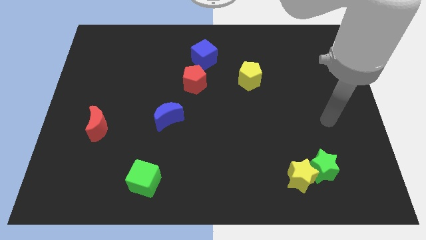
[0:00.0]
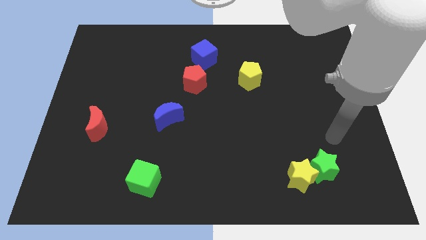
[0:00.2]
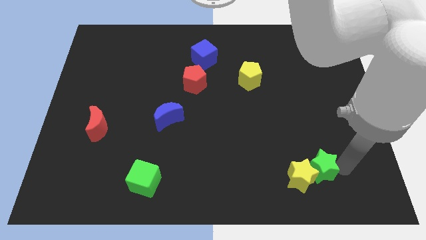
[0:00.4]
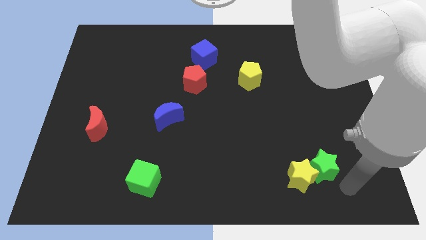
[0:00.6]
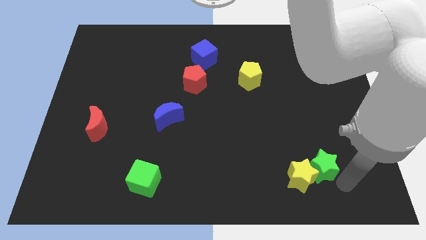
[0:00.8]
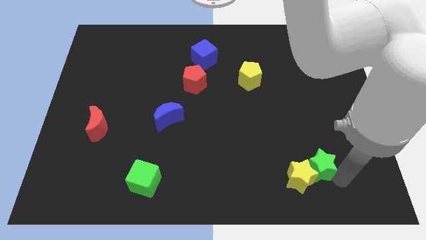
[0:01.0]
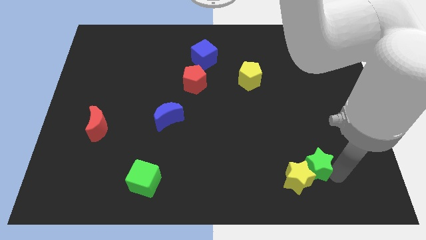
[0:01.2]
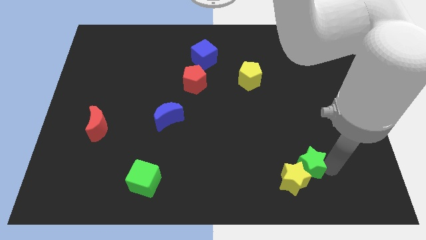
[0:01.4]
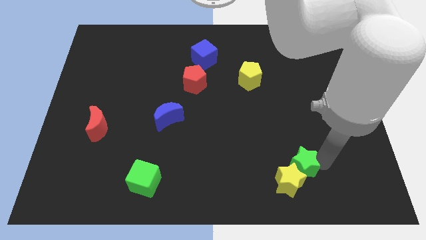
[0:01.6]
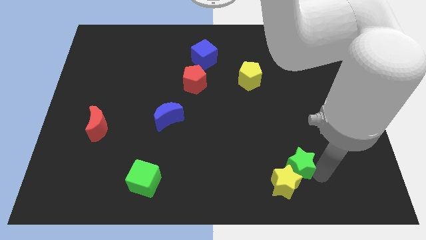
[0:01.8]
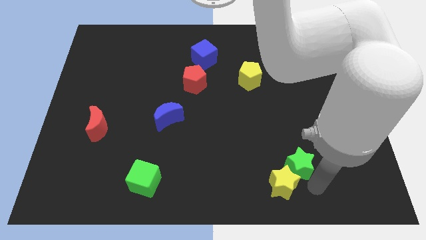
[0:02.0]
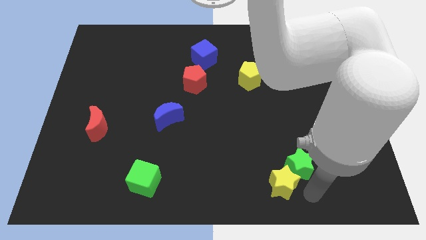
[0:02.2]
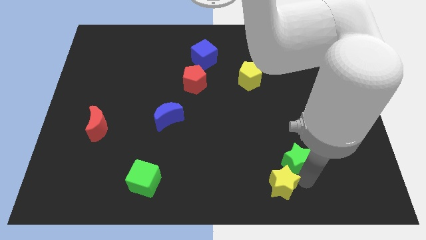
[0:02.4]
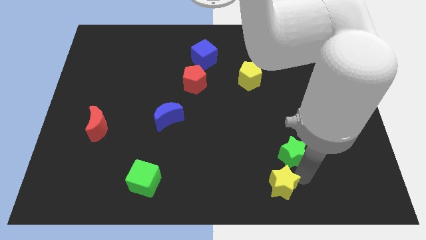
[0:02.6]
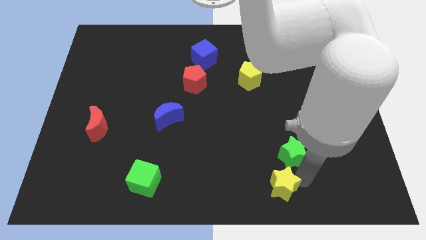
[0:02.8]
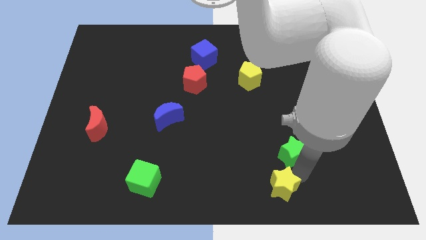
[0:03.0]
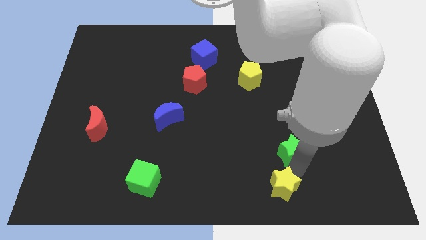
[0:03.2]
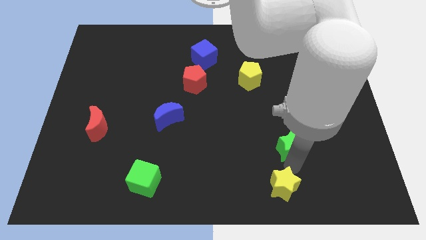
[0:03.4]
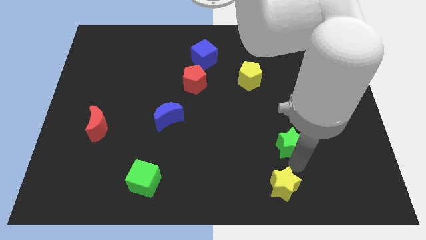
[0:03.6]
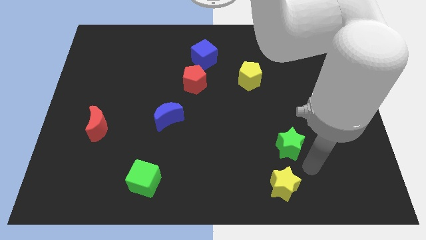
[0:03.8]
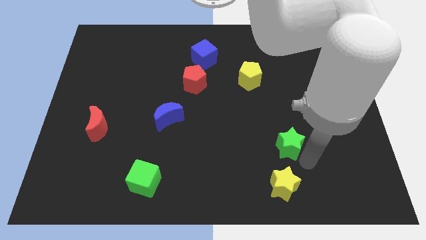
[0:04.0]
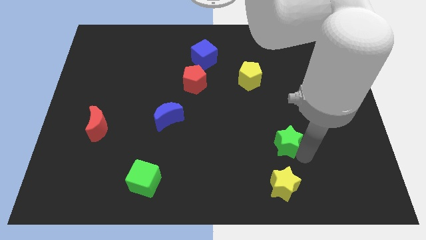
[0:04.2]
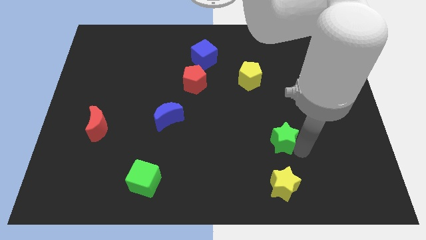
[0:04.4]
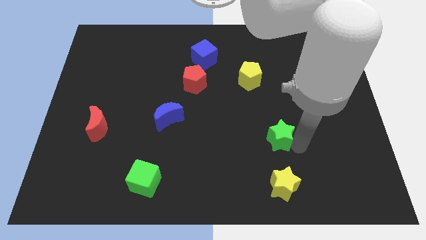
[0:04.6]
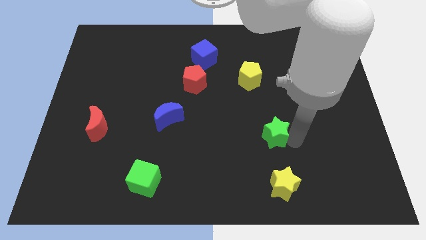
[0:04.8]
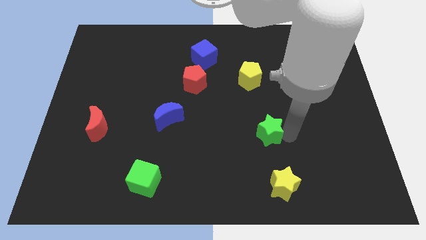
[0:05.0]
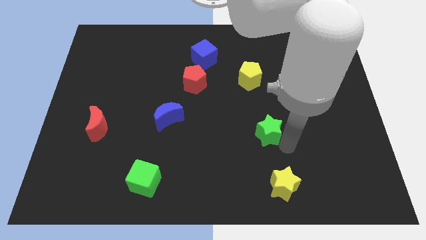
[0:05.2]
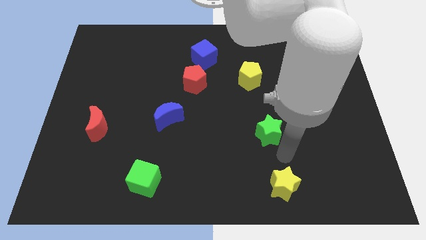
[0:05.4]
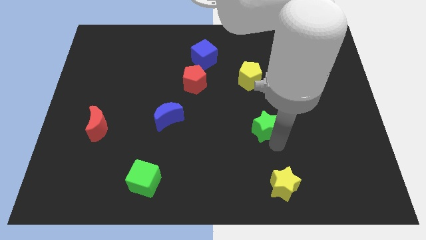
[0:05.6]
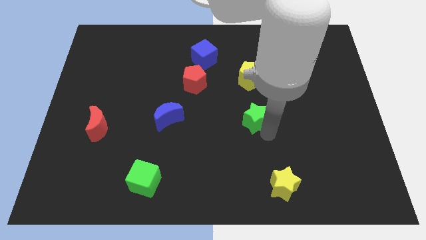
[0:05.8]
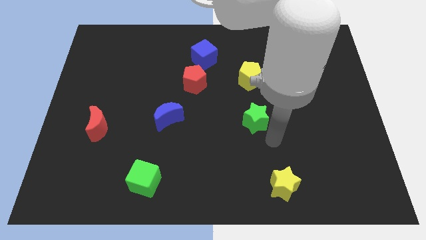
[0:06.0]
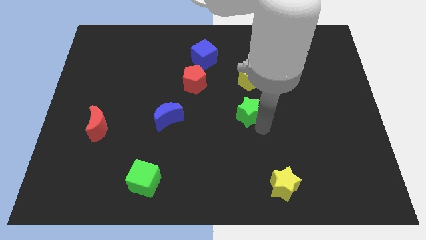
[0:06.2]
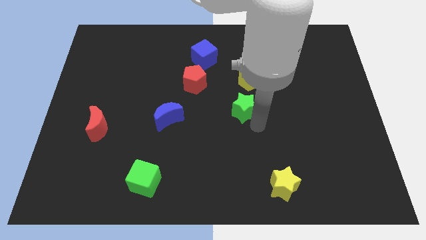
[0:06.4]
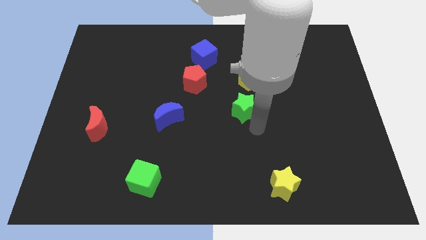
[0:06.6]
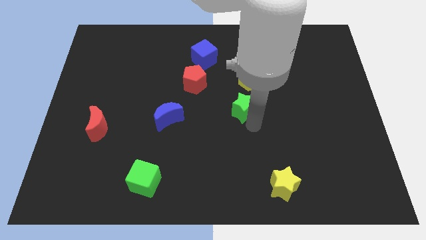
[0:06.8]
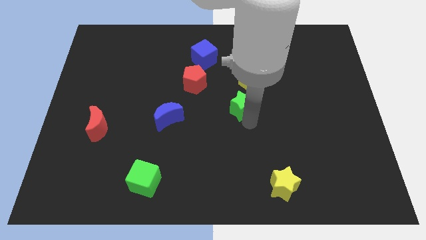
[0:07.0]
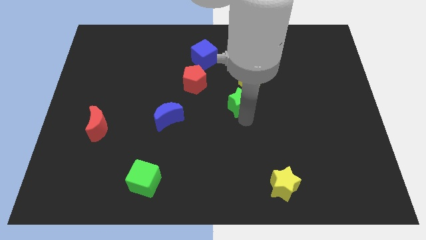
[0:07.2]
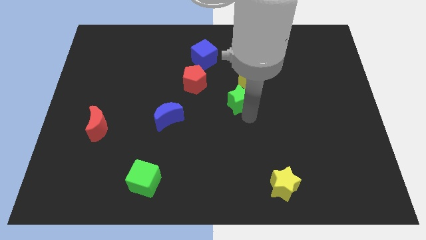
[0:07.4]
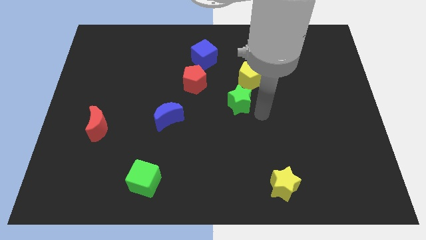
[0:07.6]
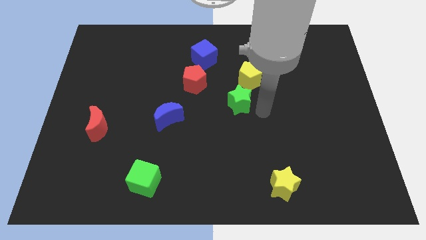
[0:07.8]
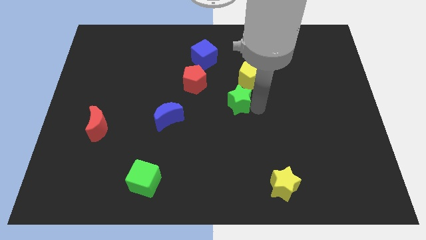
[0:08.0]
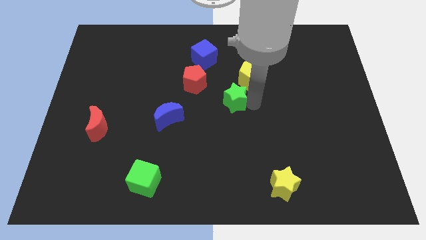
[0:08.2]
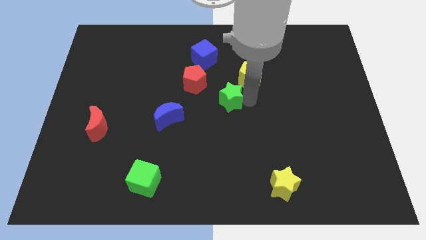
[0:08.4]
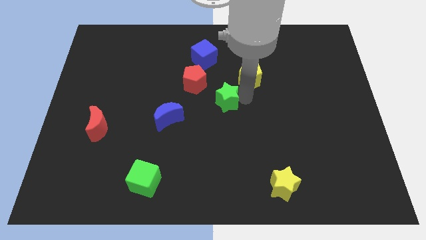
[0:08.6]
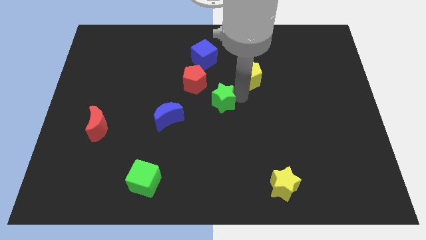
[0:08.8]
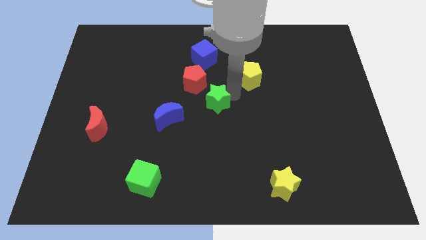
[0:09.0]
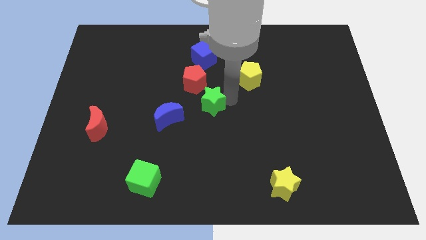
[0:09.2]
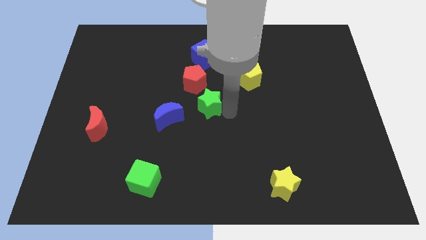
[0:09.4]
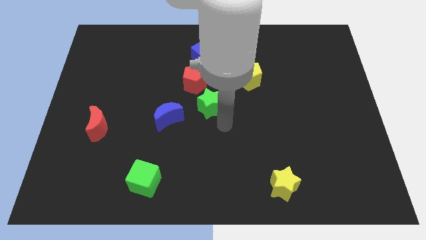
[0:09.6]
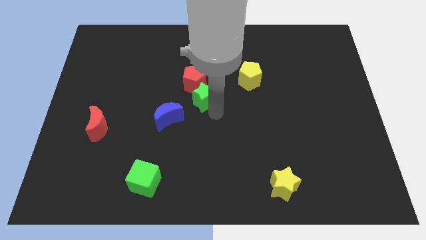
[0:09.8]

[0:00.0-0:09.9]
put the green star to the red pentagon

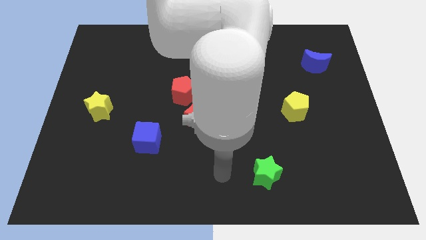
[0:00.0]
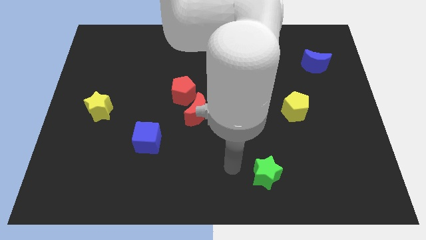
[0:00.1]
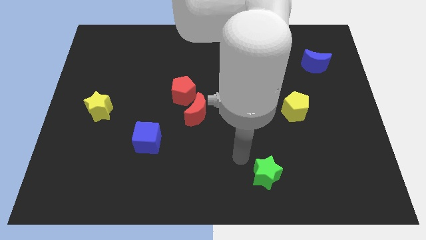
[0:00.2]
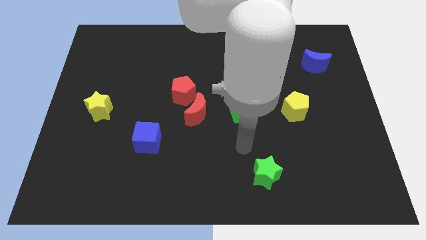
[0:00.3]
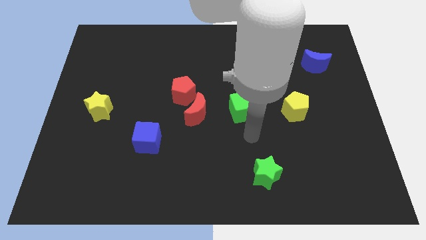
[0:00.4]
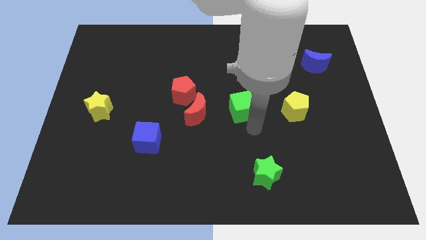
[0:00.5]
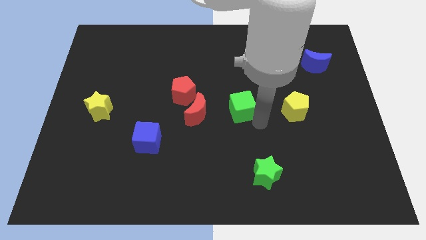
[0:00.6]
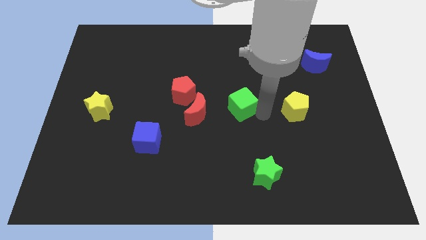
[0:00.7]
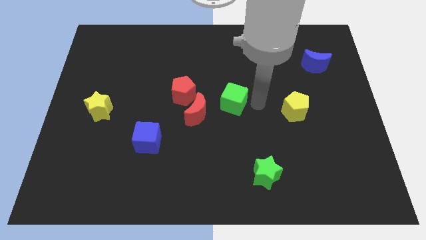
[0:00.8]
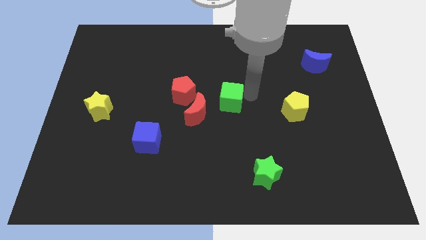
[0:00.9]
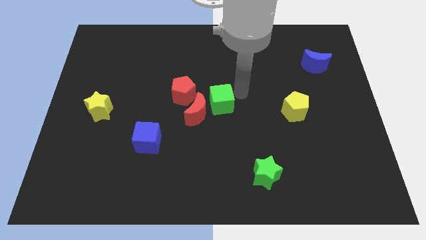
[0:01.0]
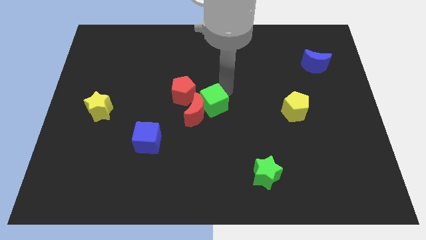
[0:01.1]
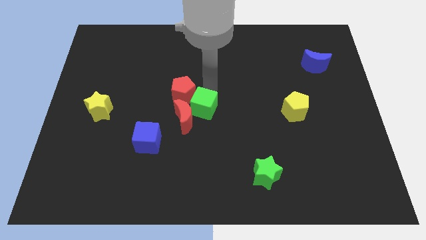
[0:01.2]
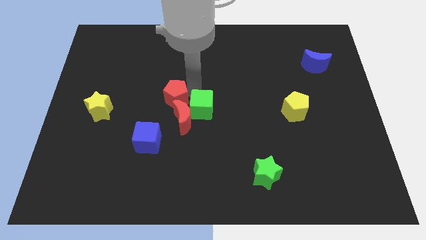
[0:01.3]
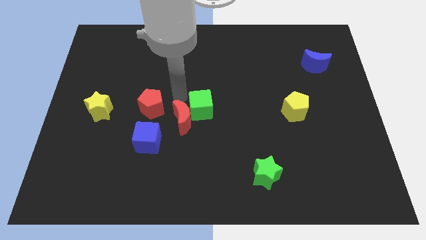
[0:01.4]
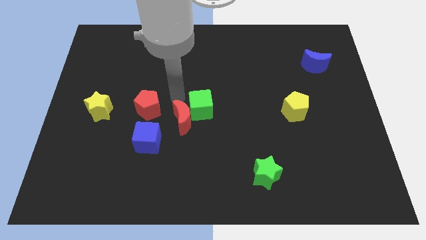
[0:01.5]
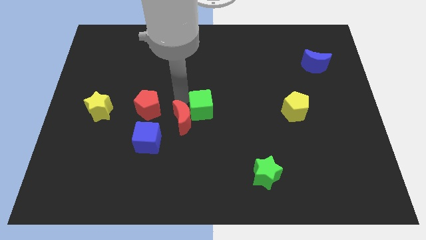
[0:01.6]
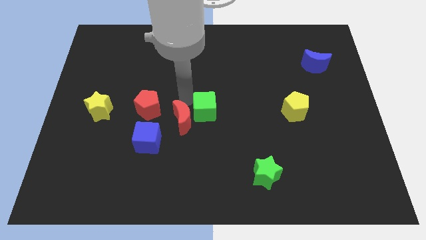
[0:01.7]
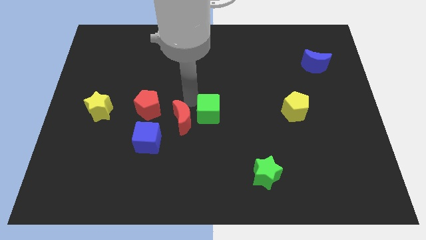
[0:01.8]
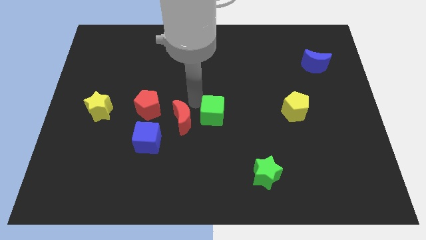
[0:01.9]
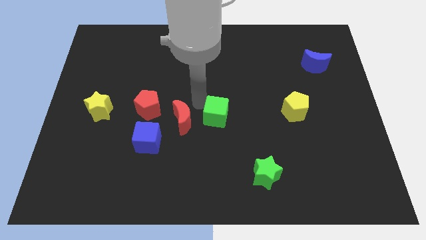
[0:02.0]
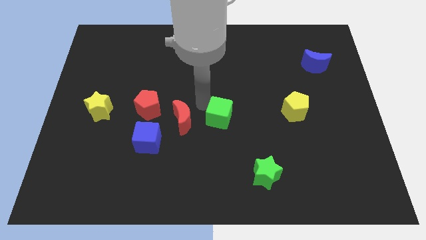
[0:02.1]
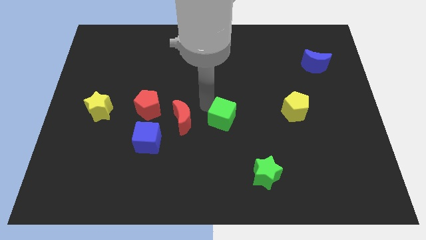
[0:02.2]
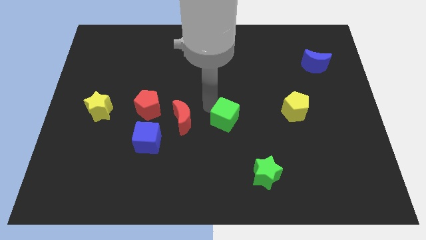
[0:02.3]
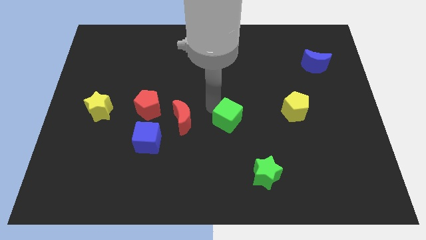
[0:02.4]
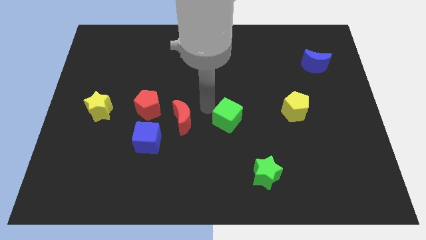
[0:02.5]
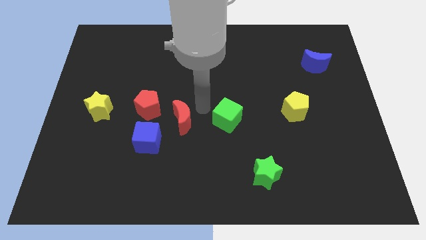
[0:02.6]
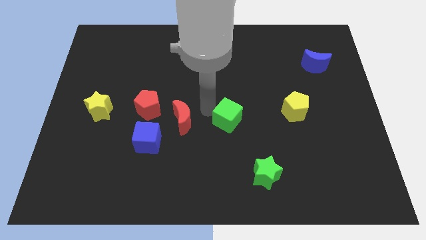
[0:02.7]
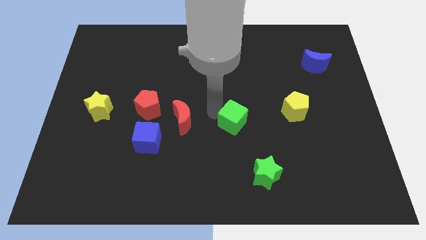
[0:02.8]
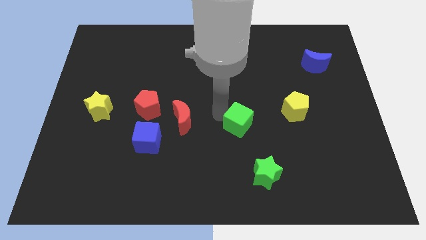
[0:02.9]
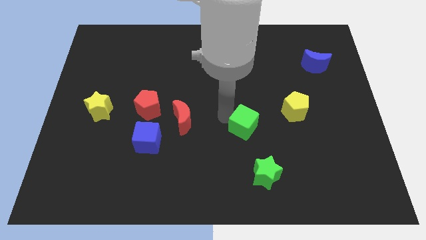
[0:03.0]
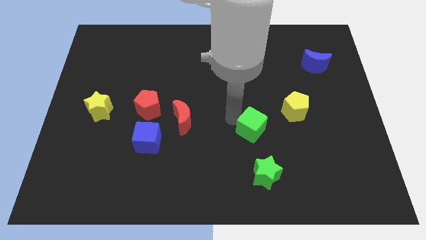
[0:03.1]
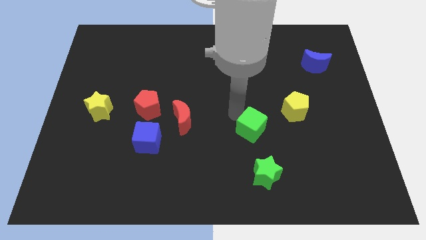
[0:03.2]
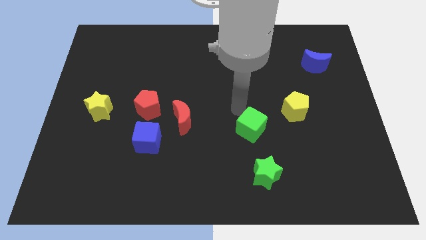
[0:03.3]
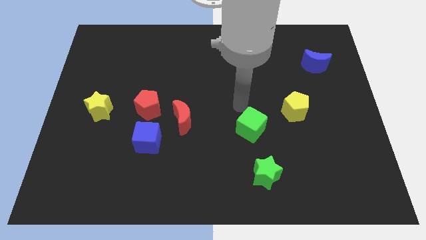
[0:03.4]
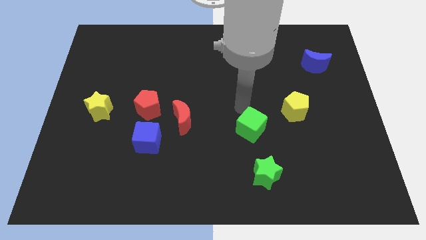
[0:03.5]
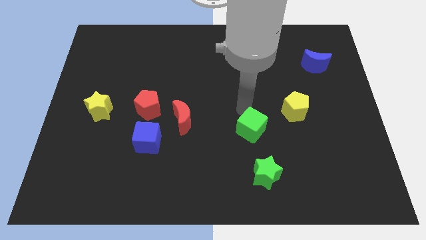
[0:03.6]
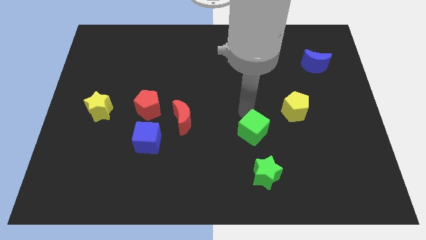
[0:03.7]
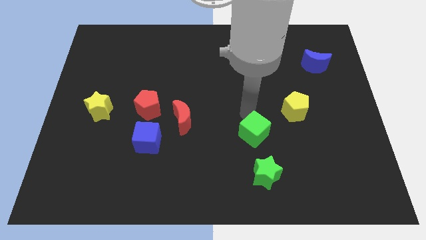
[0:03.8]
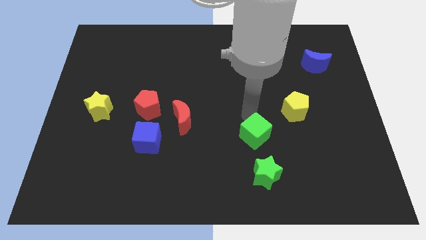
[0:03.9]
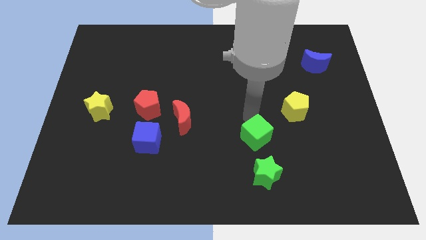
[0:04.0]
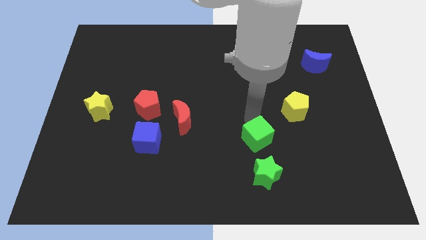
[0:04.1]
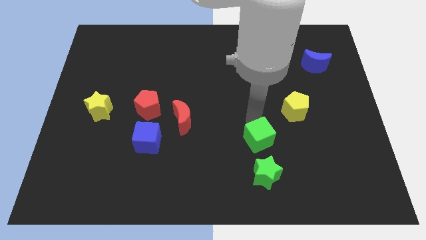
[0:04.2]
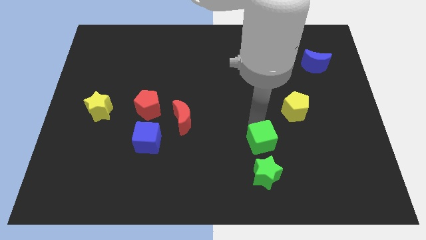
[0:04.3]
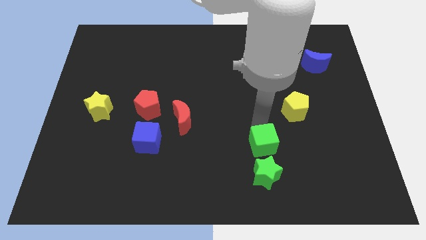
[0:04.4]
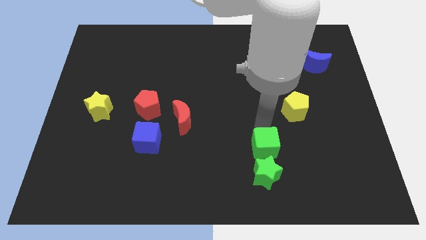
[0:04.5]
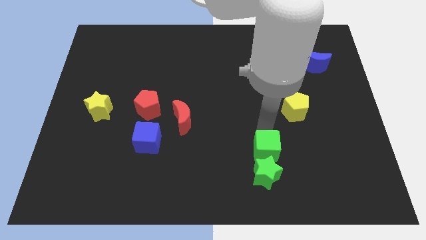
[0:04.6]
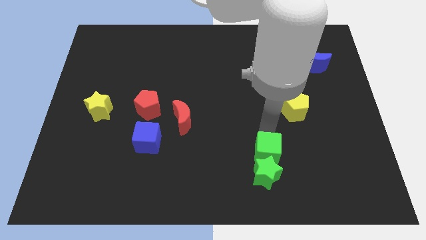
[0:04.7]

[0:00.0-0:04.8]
put the green cube to the green star
